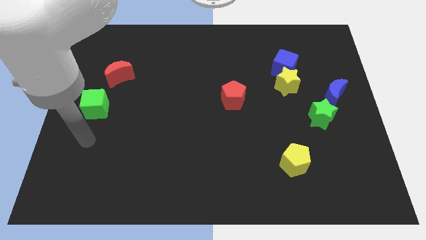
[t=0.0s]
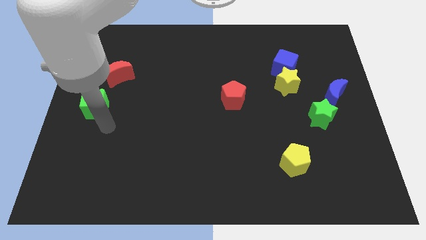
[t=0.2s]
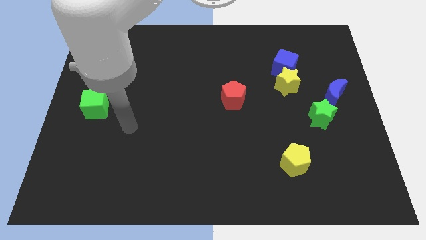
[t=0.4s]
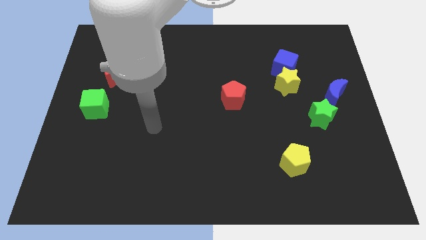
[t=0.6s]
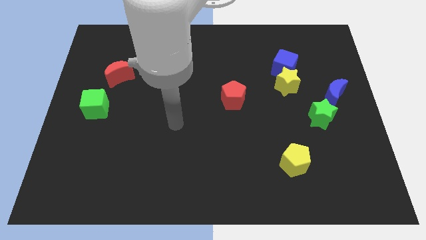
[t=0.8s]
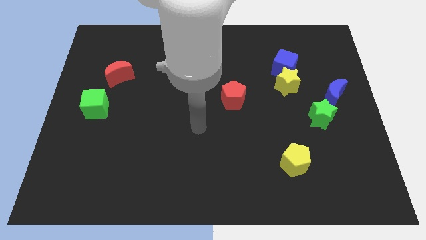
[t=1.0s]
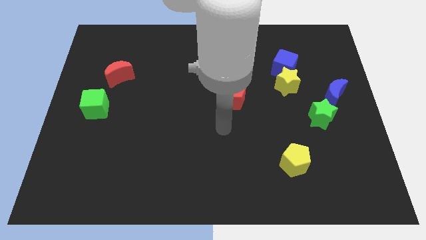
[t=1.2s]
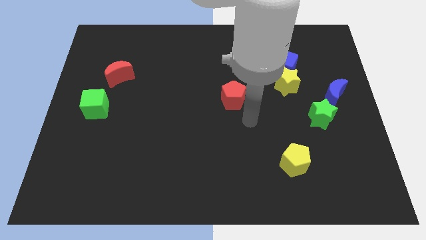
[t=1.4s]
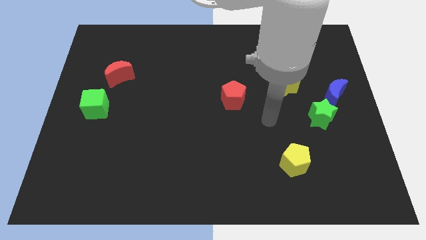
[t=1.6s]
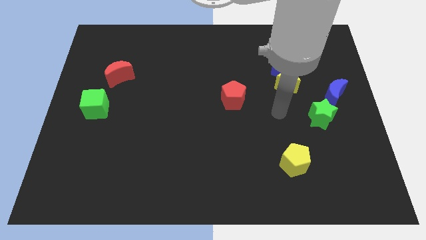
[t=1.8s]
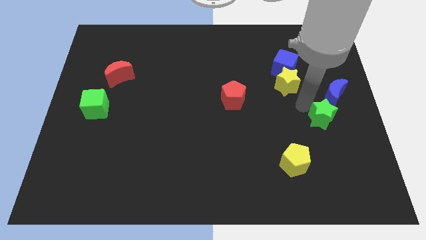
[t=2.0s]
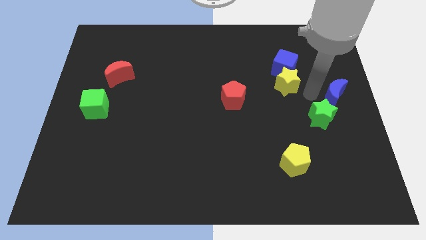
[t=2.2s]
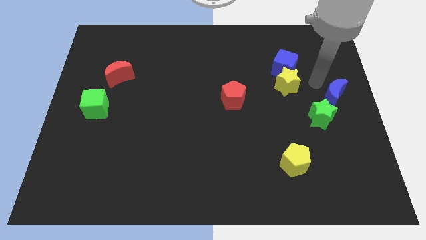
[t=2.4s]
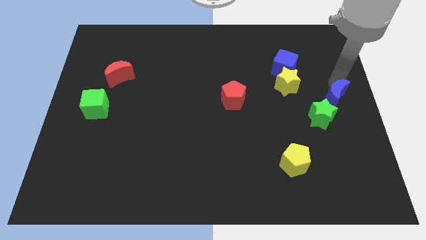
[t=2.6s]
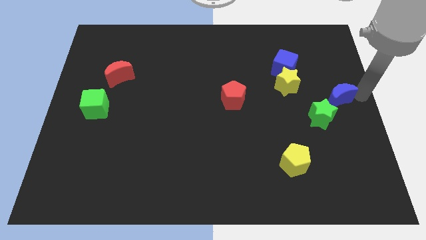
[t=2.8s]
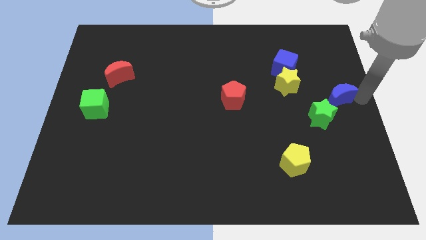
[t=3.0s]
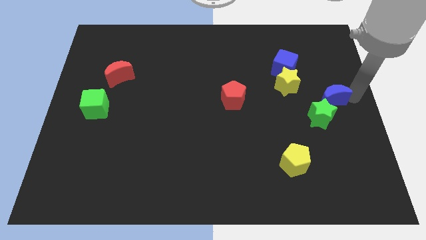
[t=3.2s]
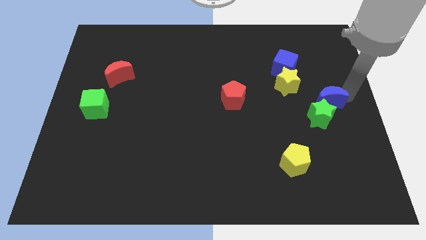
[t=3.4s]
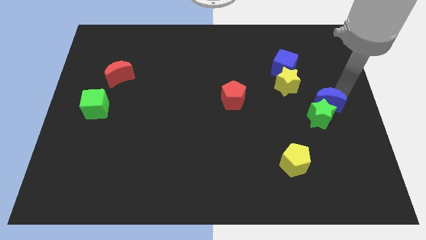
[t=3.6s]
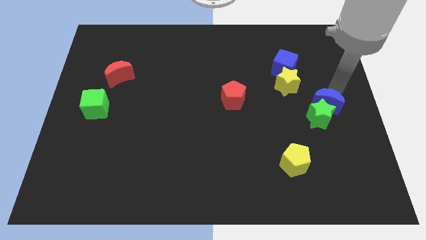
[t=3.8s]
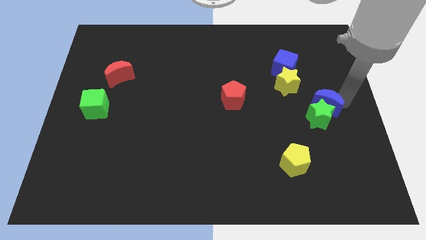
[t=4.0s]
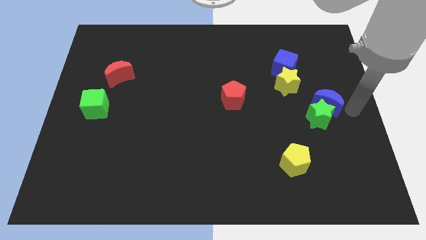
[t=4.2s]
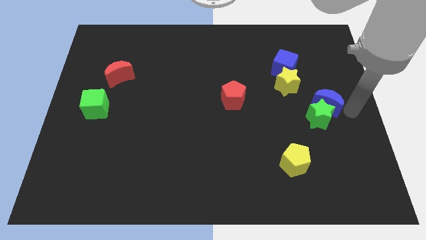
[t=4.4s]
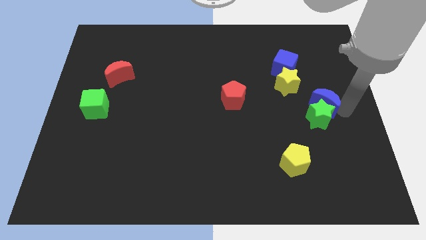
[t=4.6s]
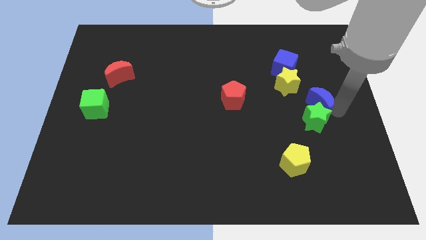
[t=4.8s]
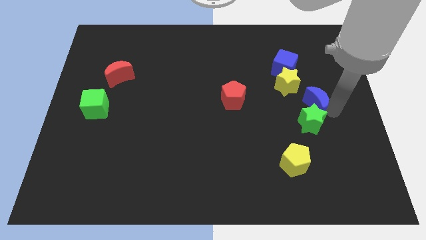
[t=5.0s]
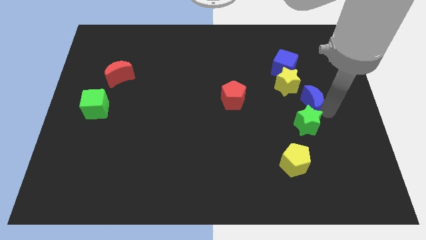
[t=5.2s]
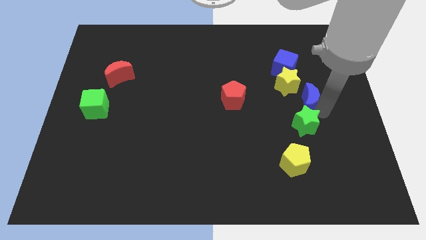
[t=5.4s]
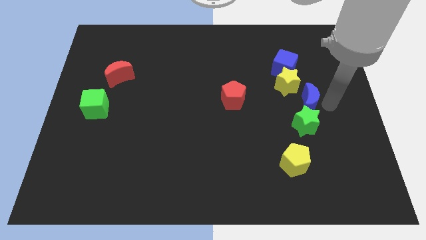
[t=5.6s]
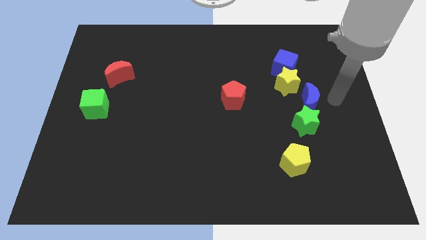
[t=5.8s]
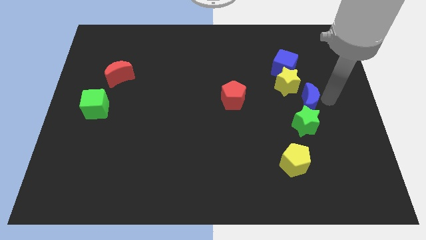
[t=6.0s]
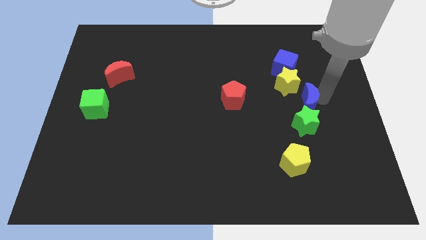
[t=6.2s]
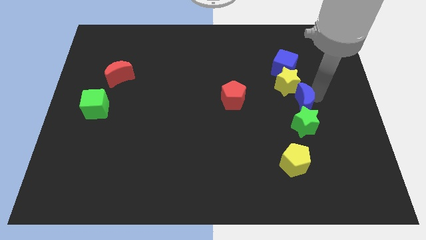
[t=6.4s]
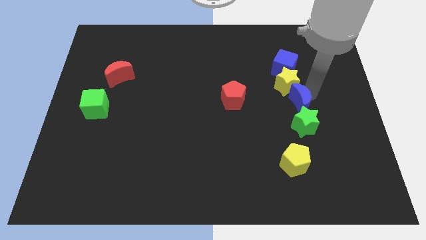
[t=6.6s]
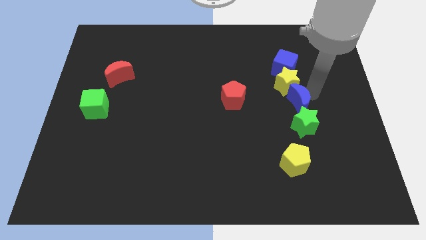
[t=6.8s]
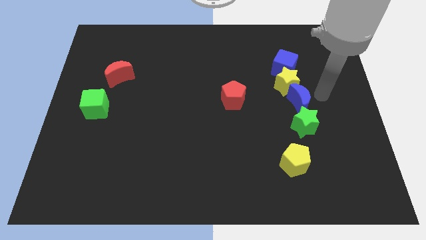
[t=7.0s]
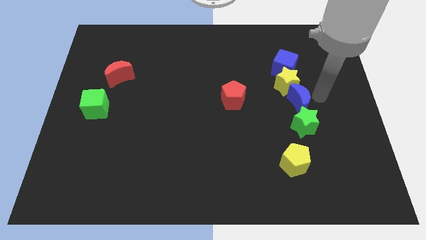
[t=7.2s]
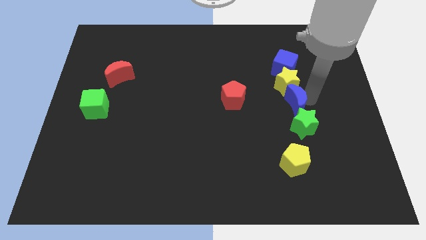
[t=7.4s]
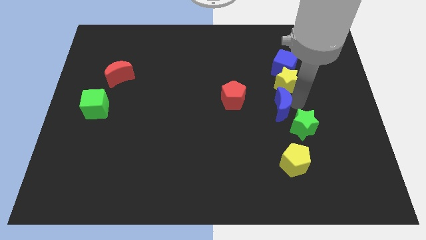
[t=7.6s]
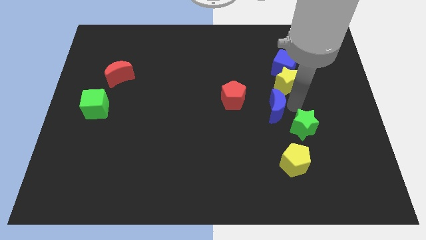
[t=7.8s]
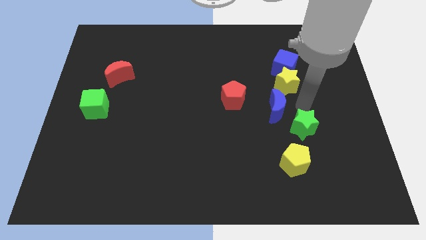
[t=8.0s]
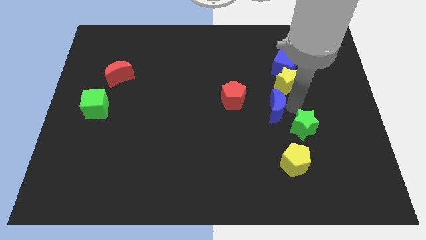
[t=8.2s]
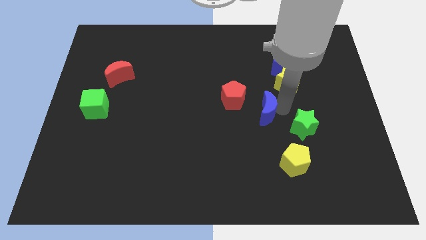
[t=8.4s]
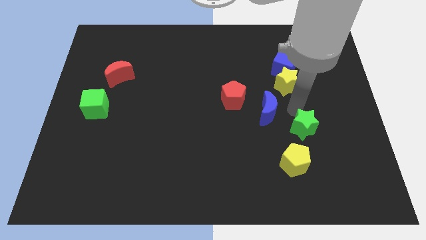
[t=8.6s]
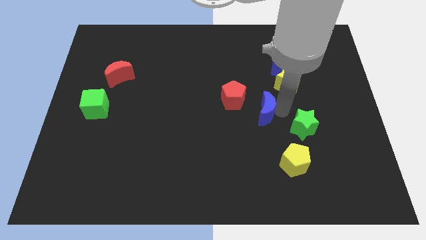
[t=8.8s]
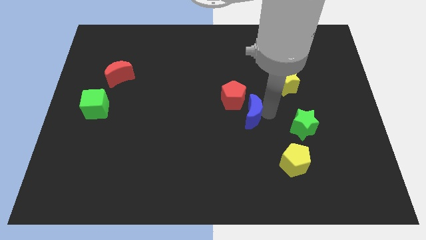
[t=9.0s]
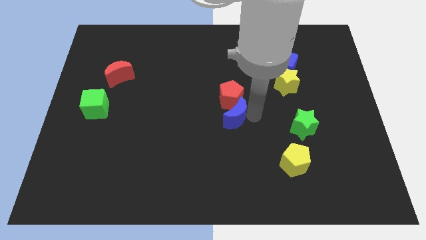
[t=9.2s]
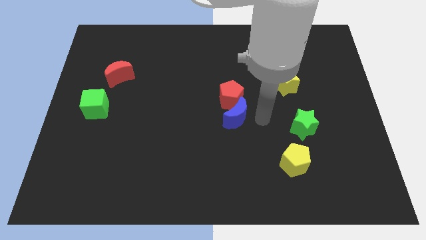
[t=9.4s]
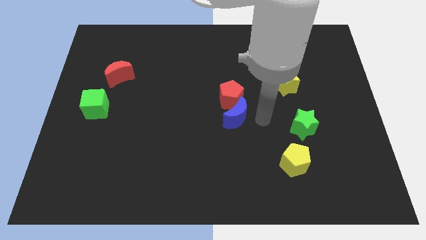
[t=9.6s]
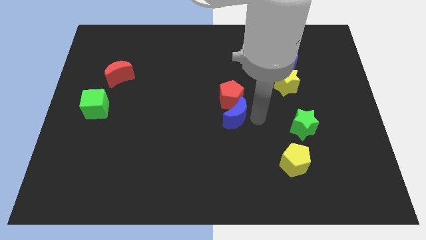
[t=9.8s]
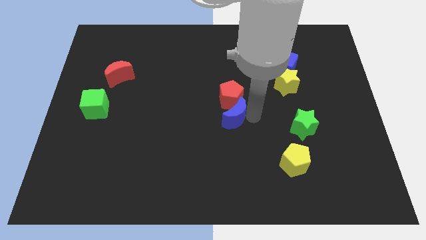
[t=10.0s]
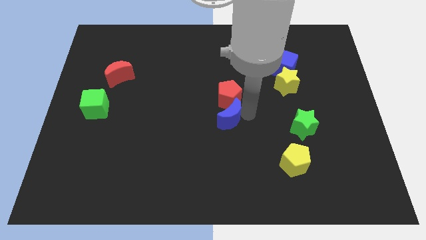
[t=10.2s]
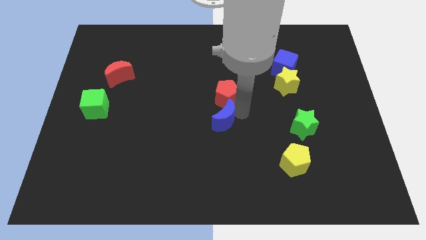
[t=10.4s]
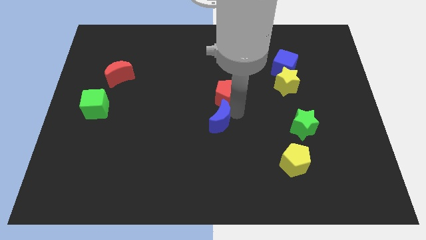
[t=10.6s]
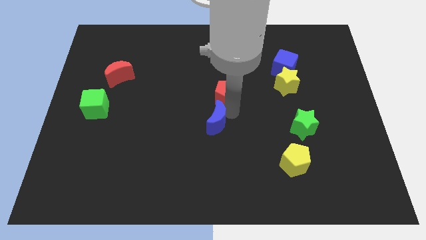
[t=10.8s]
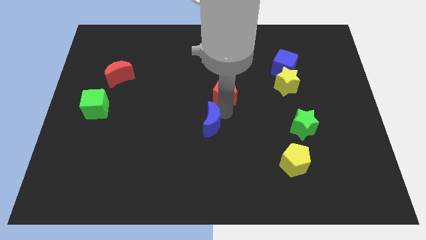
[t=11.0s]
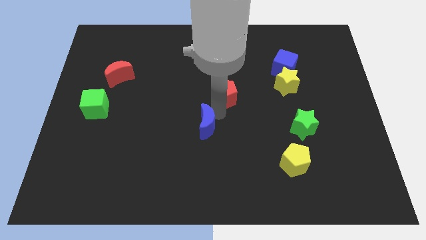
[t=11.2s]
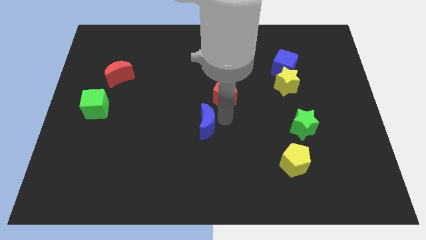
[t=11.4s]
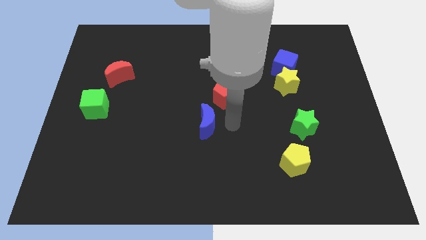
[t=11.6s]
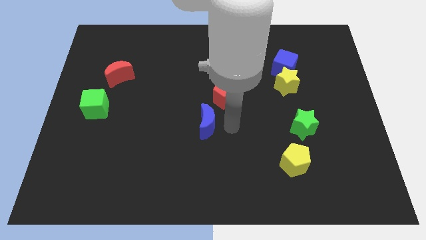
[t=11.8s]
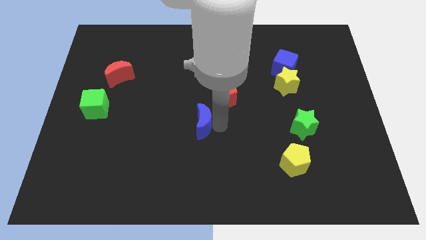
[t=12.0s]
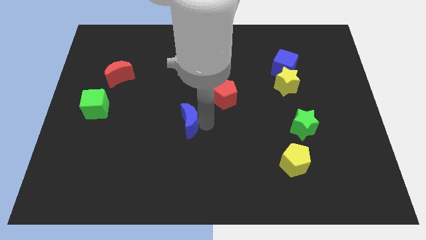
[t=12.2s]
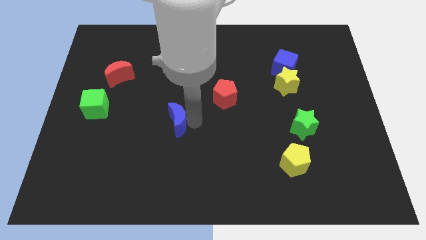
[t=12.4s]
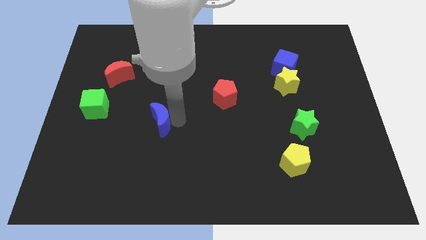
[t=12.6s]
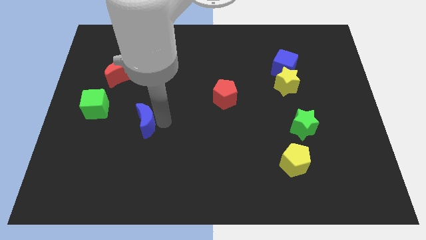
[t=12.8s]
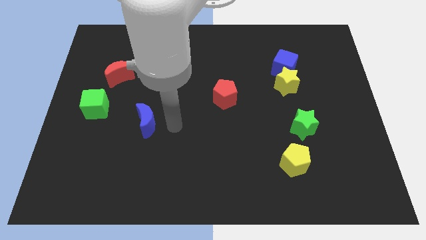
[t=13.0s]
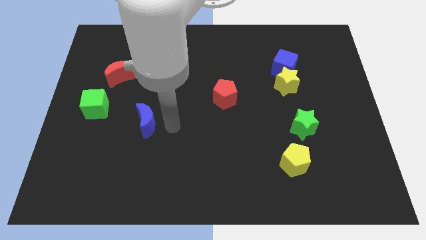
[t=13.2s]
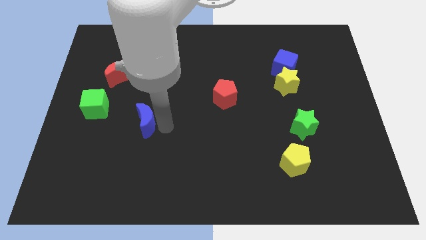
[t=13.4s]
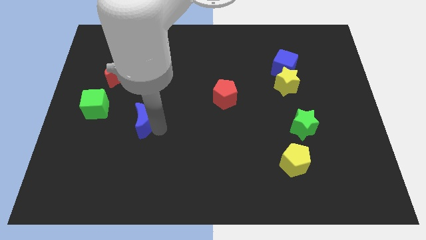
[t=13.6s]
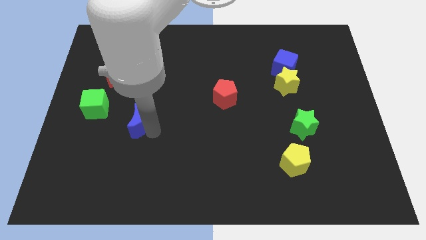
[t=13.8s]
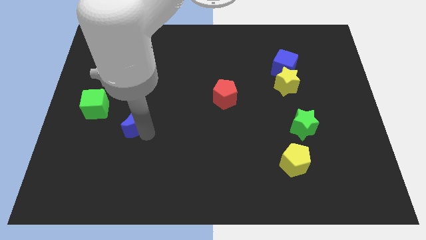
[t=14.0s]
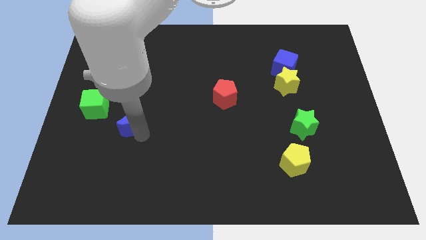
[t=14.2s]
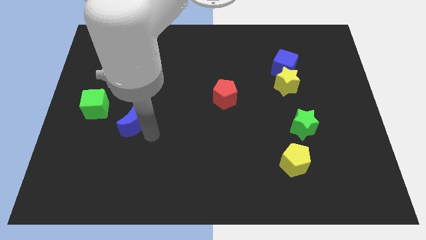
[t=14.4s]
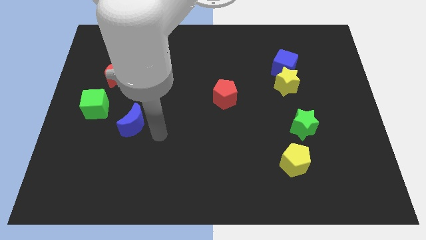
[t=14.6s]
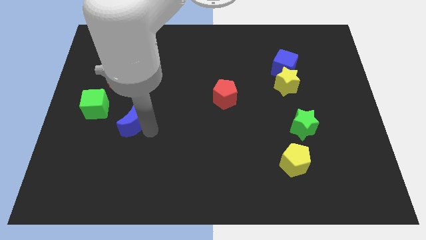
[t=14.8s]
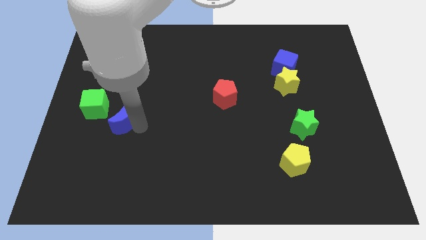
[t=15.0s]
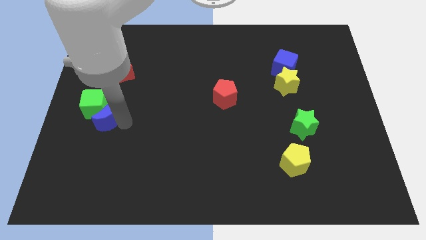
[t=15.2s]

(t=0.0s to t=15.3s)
put the blue moon towards the green cube

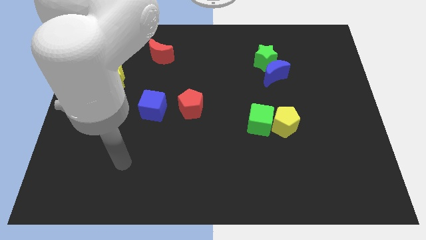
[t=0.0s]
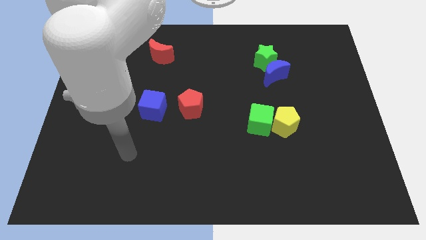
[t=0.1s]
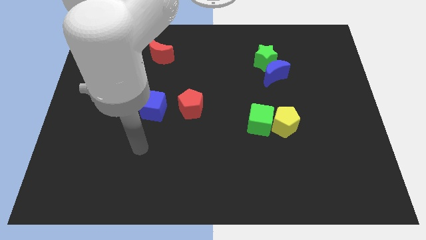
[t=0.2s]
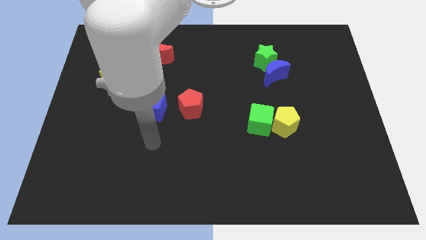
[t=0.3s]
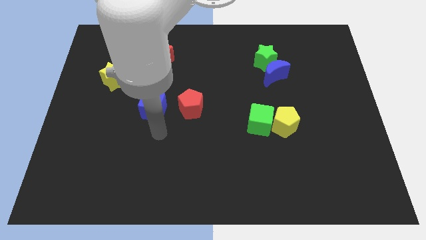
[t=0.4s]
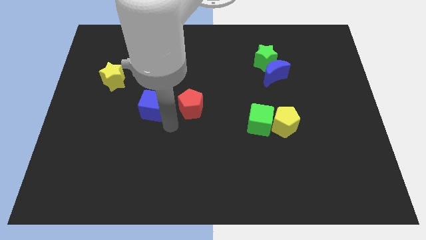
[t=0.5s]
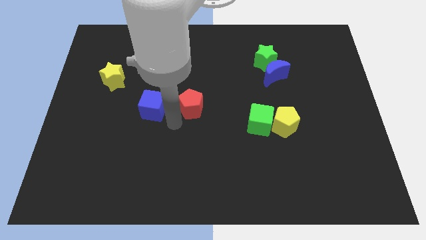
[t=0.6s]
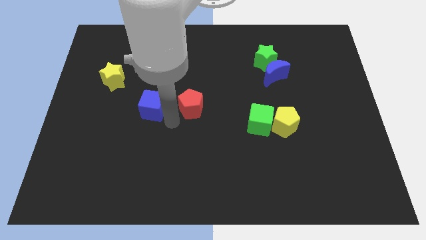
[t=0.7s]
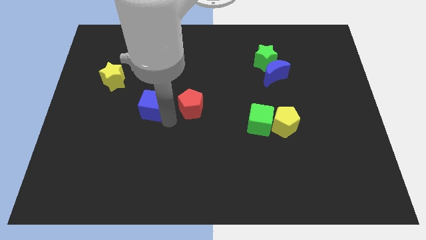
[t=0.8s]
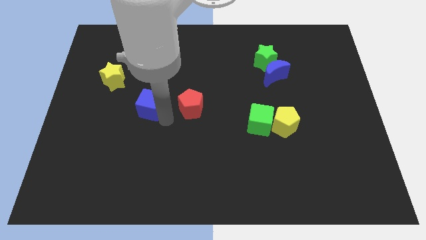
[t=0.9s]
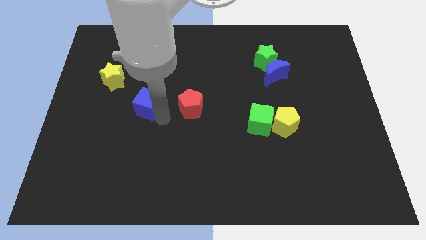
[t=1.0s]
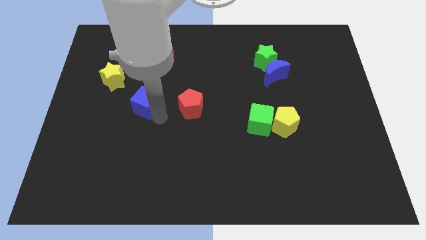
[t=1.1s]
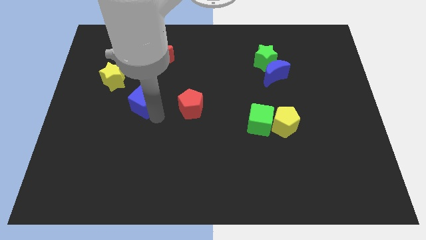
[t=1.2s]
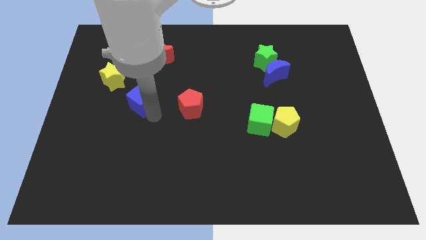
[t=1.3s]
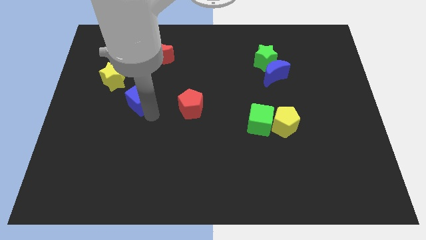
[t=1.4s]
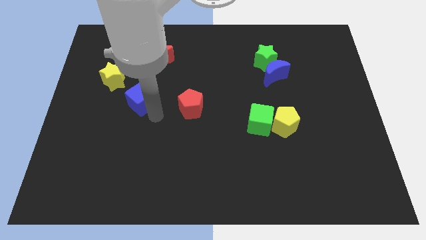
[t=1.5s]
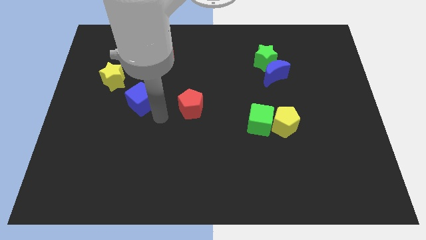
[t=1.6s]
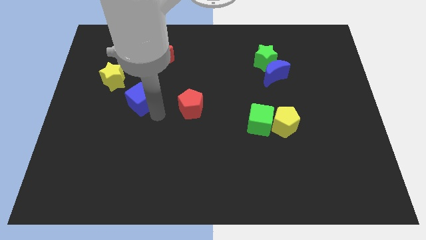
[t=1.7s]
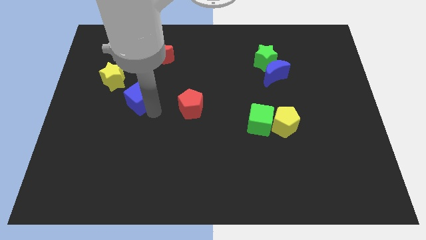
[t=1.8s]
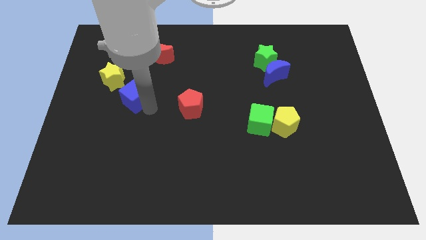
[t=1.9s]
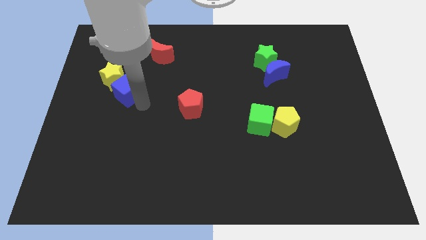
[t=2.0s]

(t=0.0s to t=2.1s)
slide the blue cube close to the yellow star
